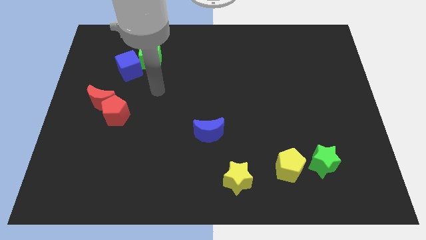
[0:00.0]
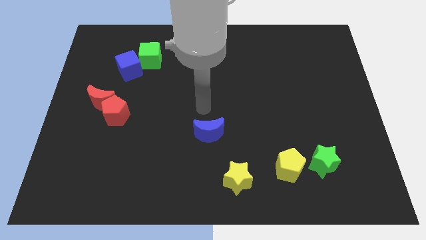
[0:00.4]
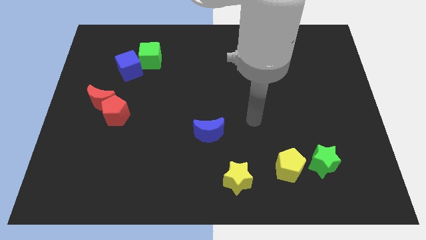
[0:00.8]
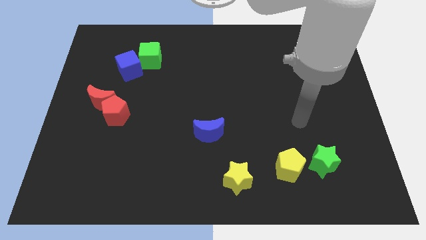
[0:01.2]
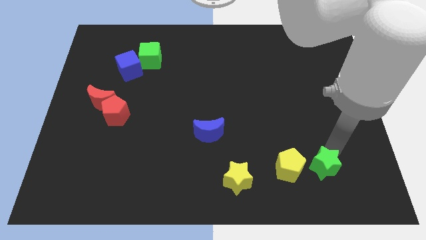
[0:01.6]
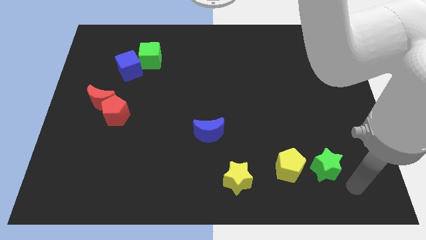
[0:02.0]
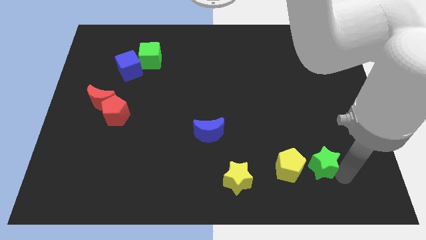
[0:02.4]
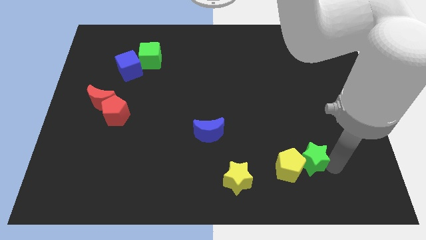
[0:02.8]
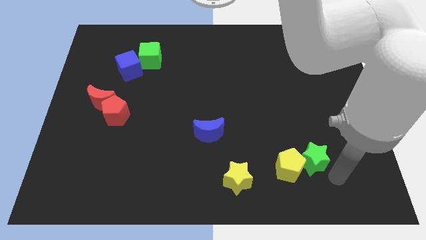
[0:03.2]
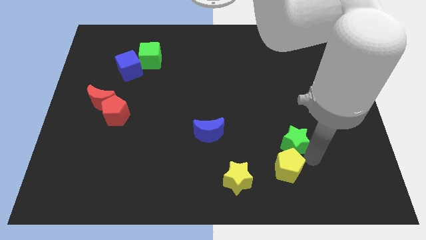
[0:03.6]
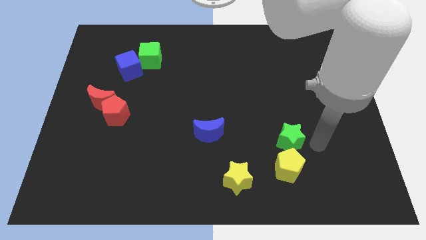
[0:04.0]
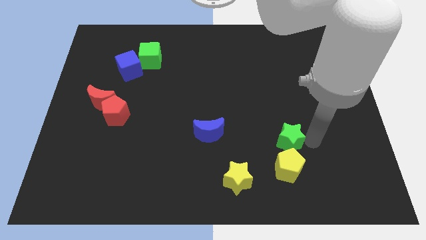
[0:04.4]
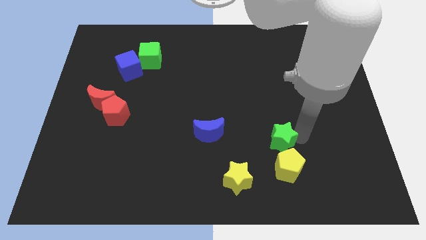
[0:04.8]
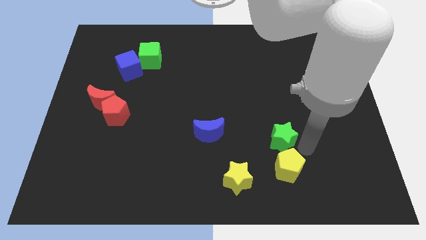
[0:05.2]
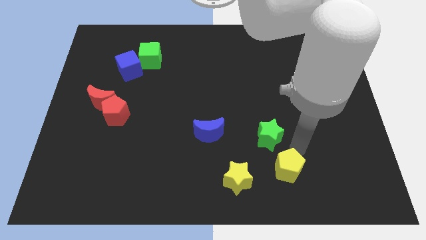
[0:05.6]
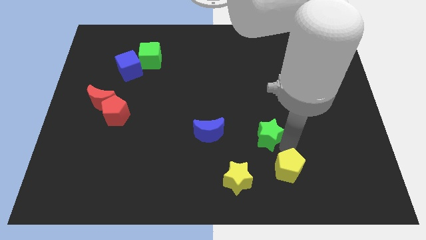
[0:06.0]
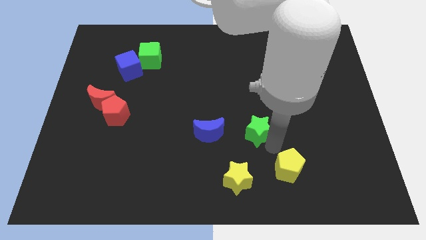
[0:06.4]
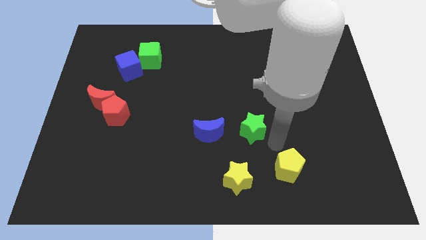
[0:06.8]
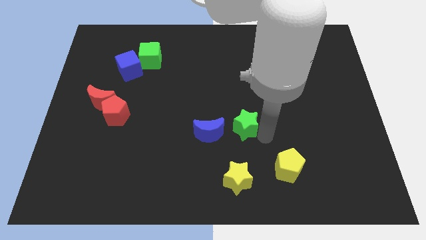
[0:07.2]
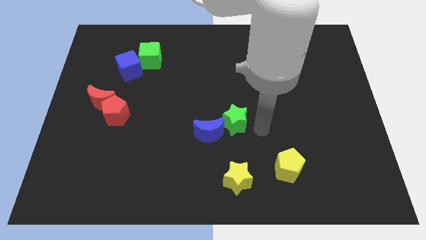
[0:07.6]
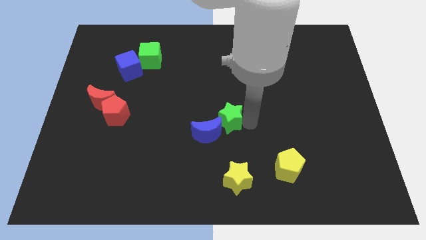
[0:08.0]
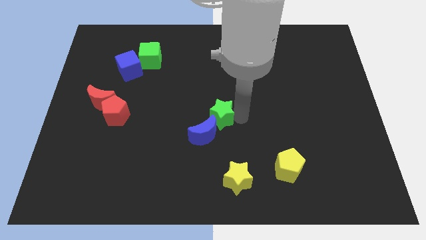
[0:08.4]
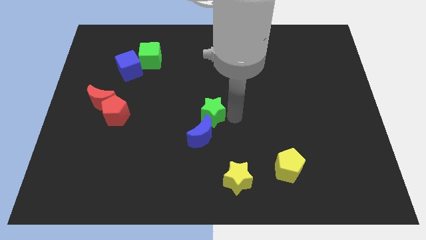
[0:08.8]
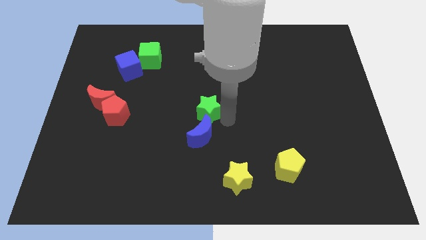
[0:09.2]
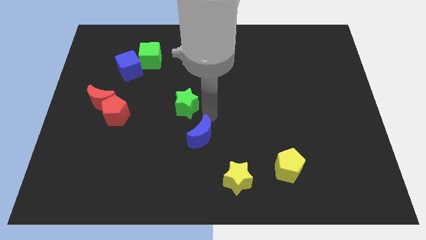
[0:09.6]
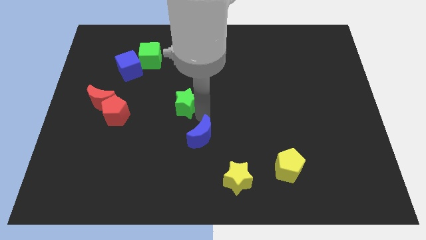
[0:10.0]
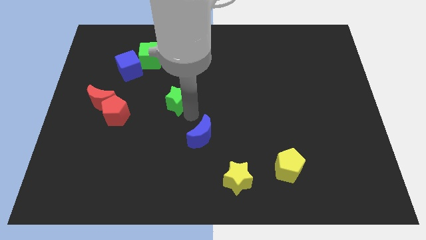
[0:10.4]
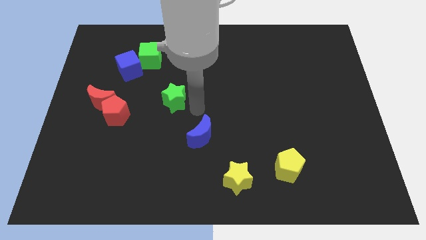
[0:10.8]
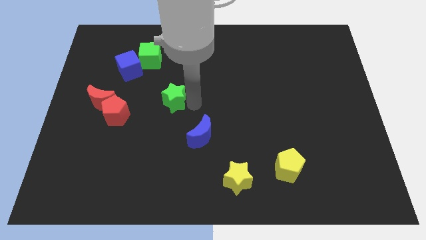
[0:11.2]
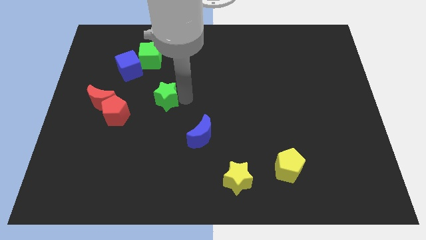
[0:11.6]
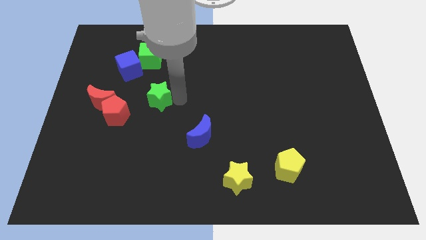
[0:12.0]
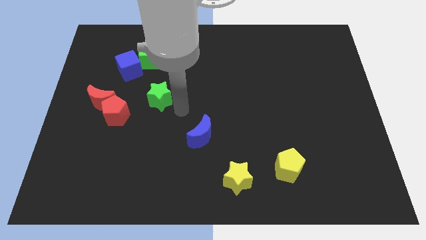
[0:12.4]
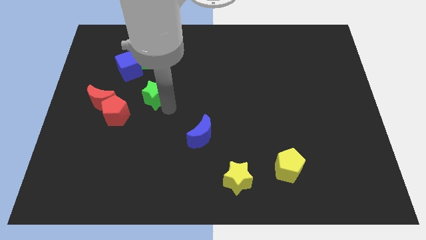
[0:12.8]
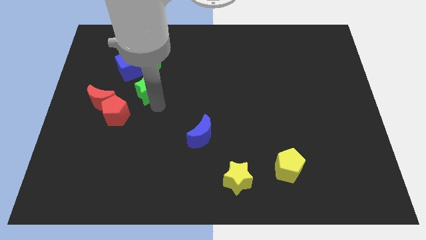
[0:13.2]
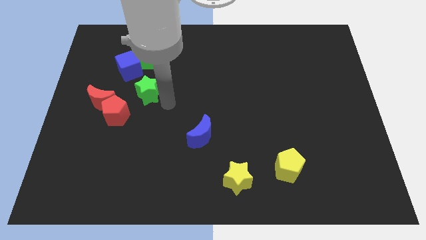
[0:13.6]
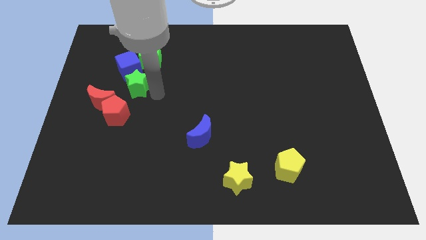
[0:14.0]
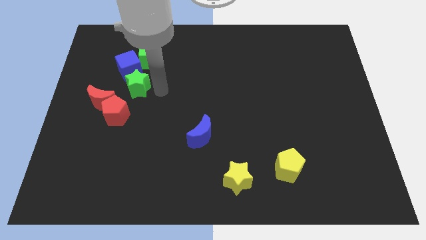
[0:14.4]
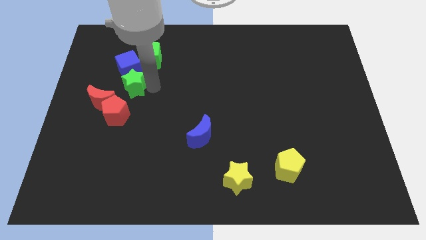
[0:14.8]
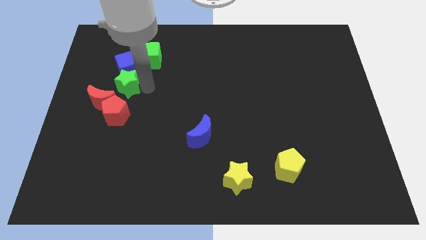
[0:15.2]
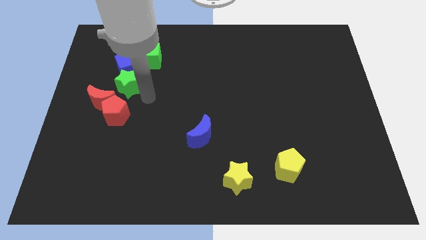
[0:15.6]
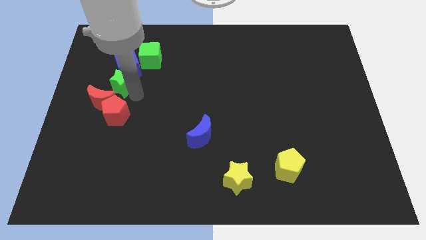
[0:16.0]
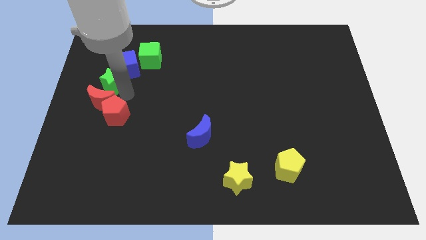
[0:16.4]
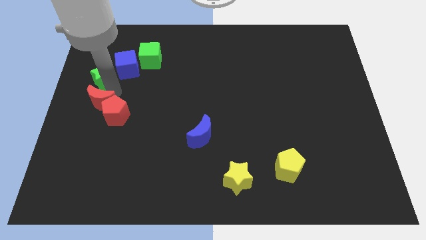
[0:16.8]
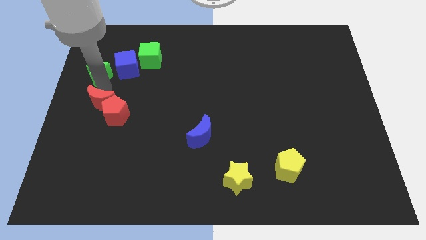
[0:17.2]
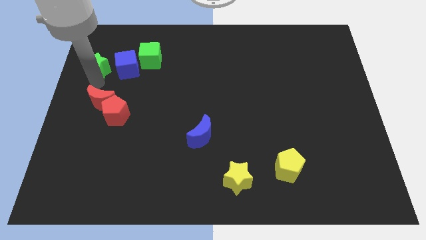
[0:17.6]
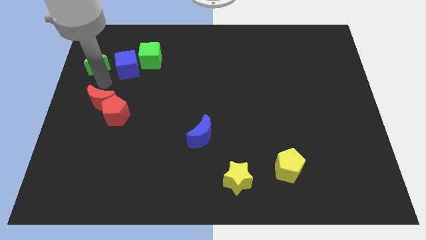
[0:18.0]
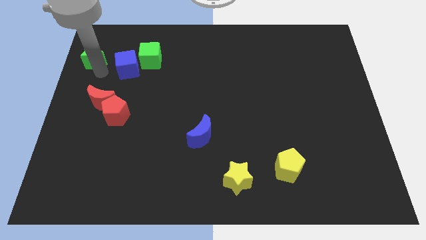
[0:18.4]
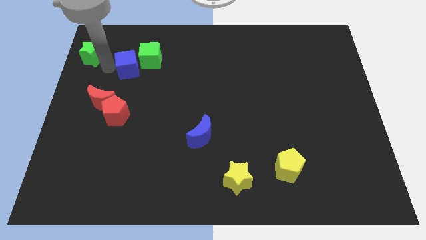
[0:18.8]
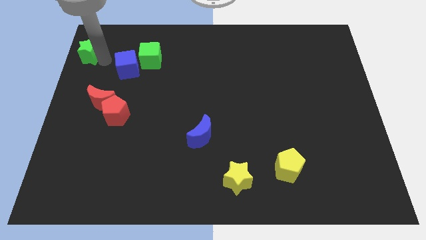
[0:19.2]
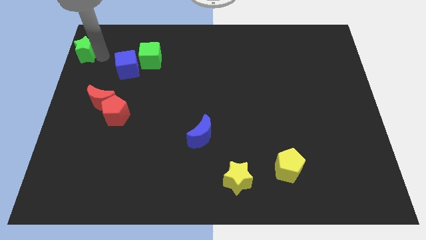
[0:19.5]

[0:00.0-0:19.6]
move the green star to the top left corner
